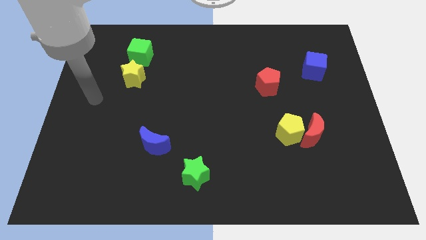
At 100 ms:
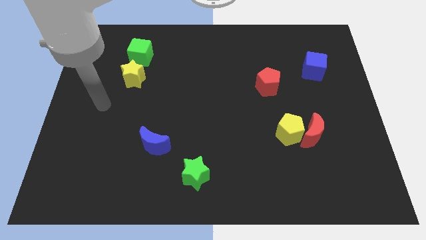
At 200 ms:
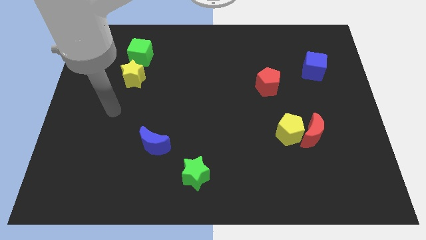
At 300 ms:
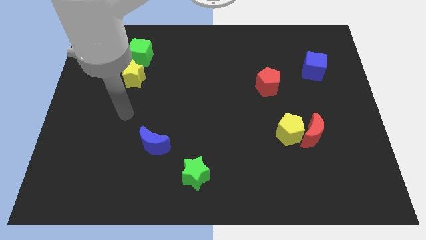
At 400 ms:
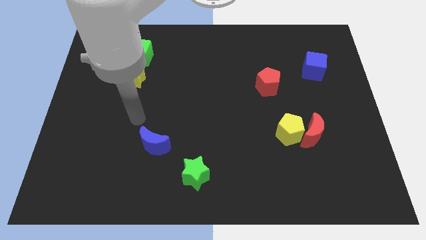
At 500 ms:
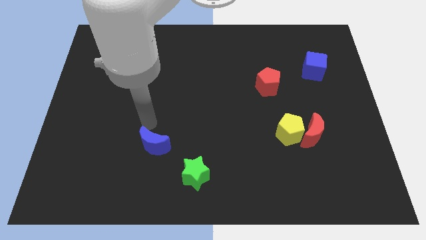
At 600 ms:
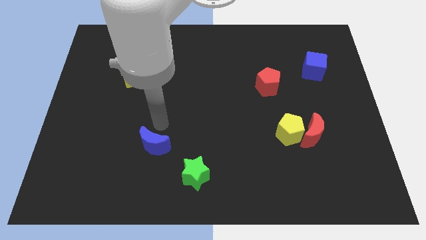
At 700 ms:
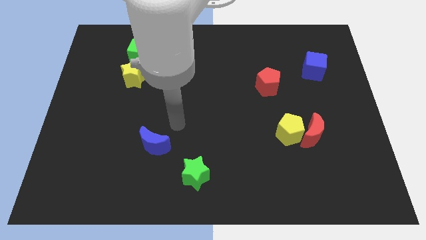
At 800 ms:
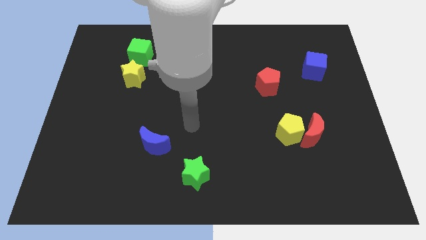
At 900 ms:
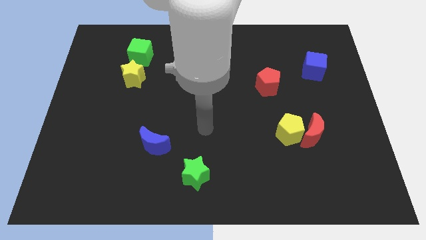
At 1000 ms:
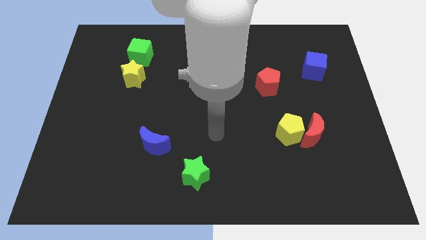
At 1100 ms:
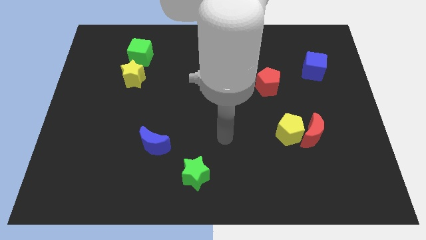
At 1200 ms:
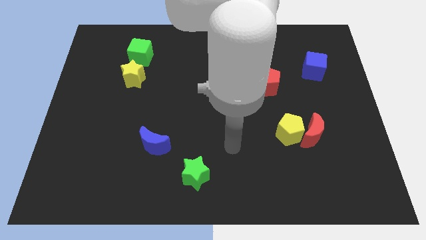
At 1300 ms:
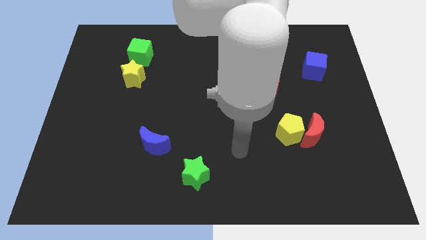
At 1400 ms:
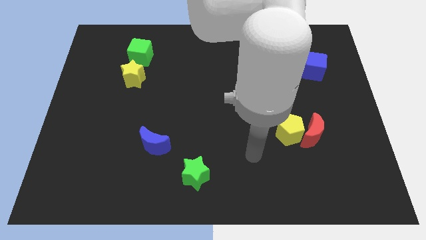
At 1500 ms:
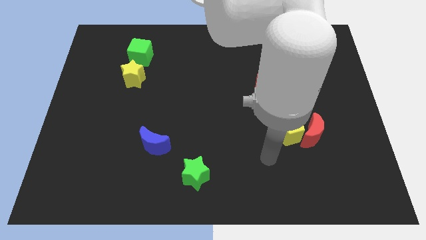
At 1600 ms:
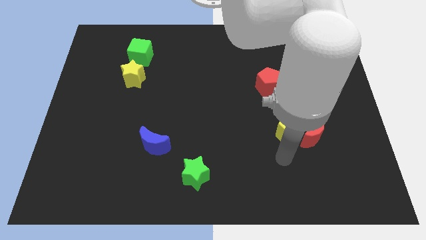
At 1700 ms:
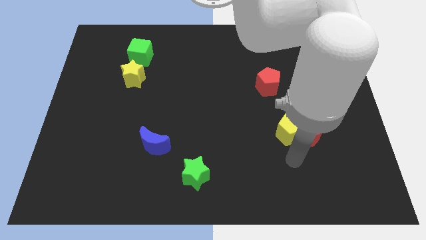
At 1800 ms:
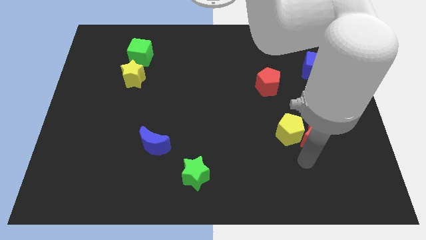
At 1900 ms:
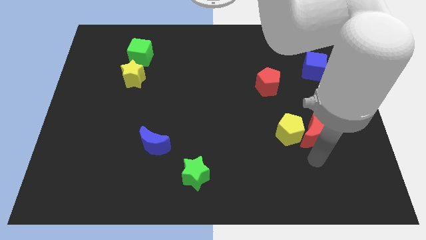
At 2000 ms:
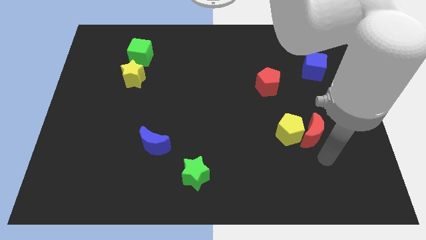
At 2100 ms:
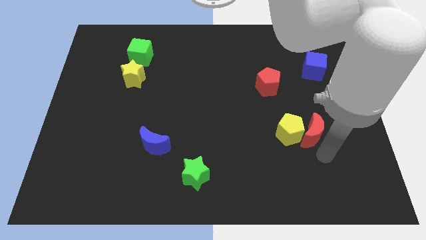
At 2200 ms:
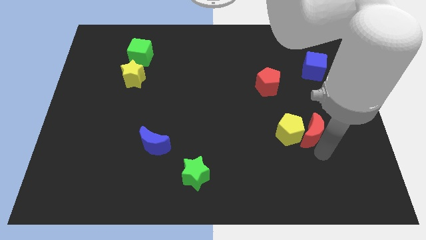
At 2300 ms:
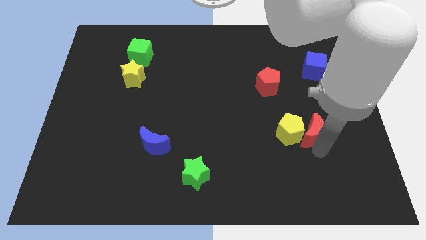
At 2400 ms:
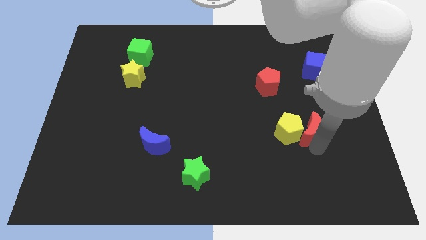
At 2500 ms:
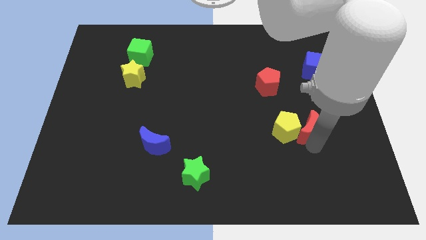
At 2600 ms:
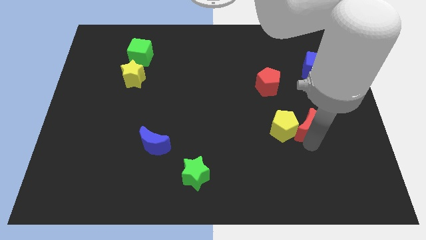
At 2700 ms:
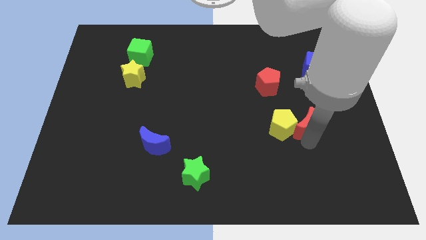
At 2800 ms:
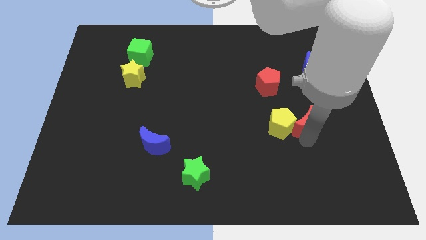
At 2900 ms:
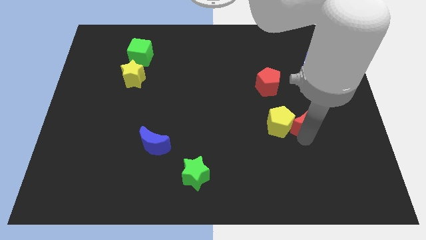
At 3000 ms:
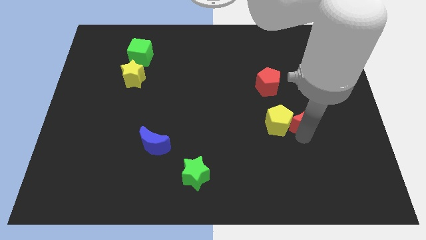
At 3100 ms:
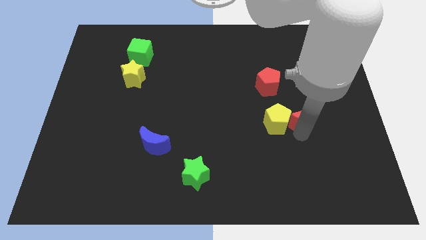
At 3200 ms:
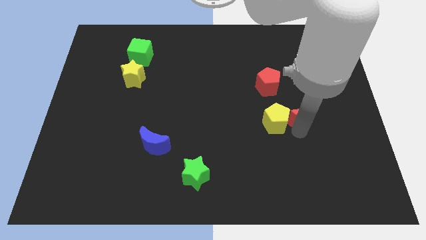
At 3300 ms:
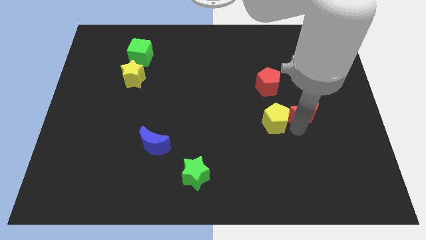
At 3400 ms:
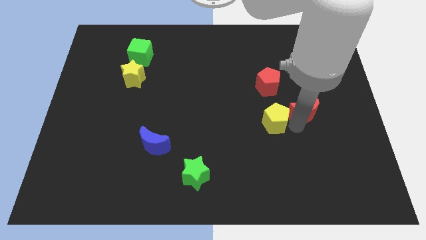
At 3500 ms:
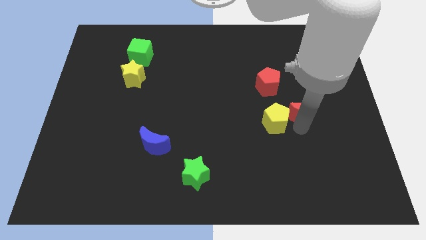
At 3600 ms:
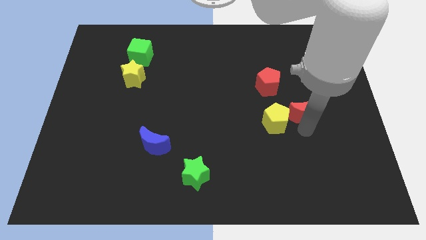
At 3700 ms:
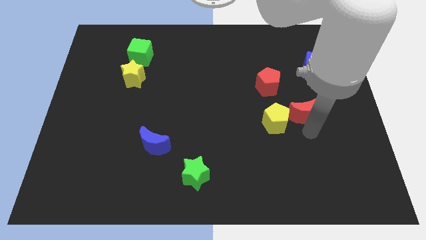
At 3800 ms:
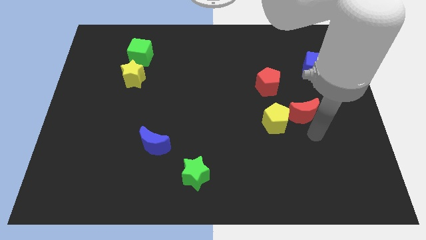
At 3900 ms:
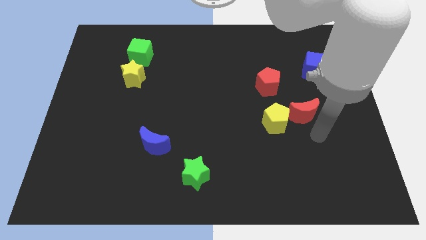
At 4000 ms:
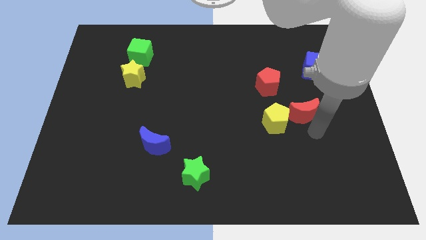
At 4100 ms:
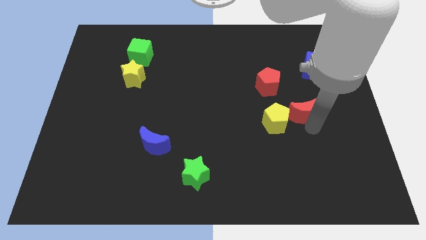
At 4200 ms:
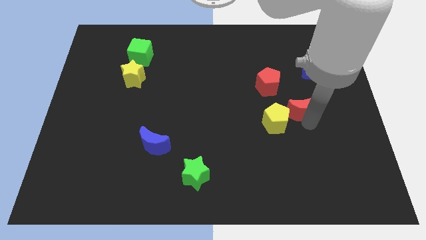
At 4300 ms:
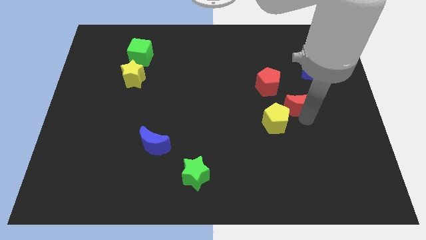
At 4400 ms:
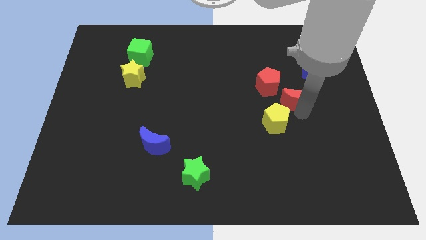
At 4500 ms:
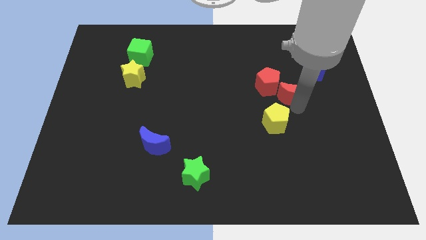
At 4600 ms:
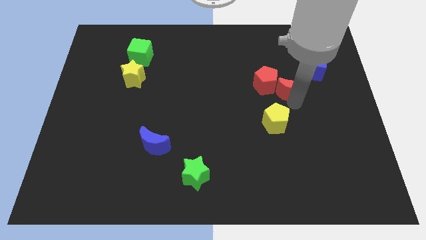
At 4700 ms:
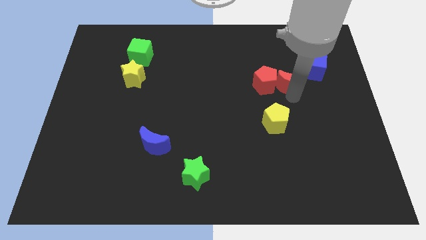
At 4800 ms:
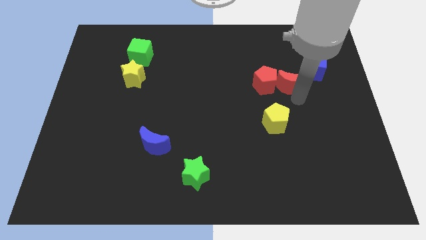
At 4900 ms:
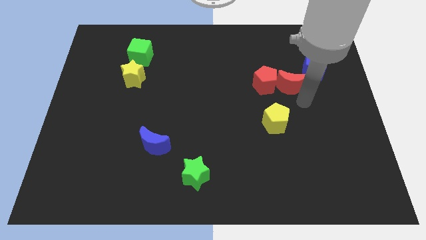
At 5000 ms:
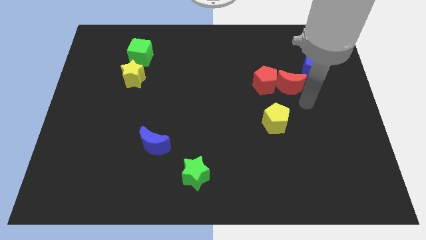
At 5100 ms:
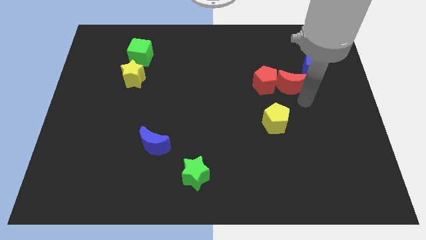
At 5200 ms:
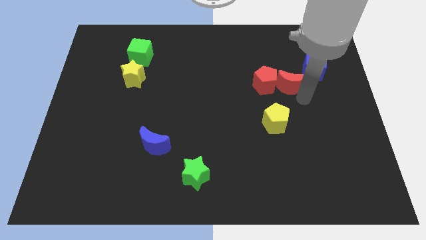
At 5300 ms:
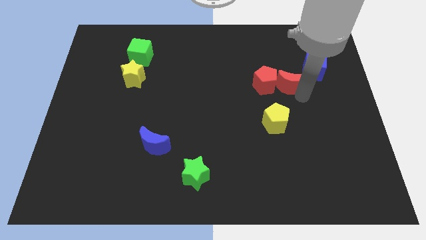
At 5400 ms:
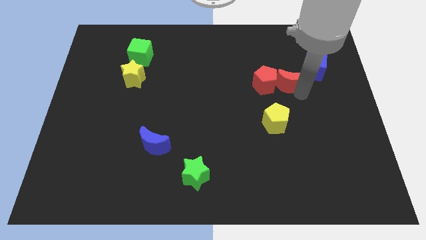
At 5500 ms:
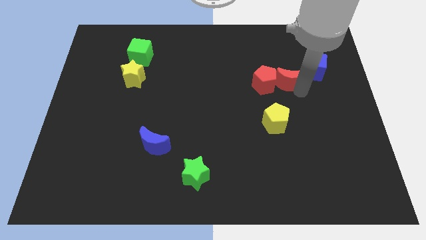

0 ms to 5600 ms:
push the red moon to the left of the blue cube

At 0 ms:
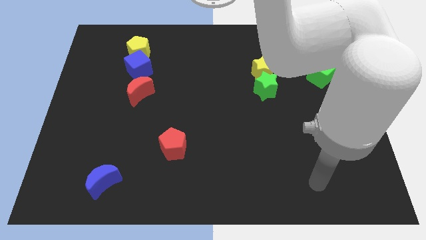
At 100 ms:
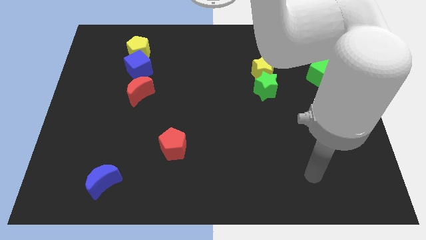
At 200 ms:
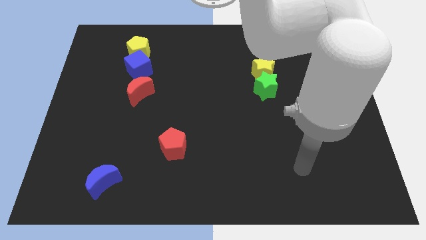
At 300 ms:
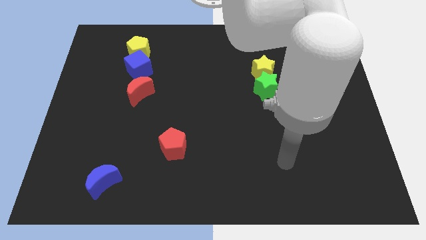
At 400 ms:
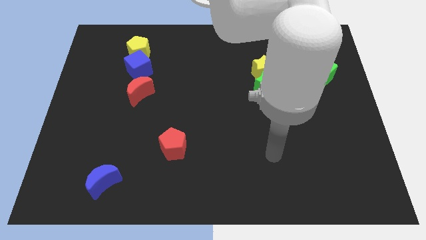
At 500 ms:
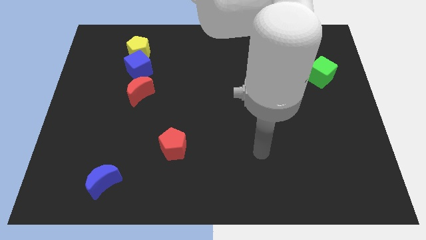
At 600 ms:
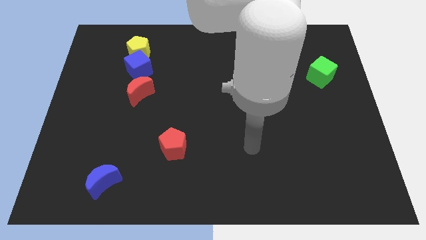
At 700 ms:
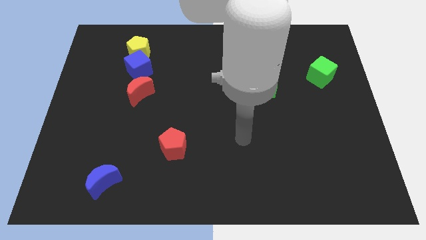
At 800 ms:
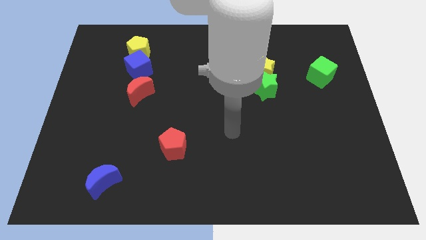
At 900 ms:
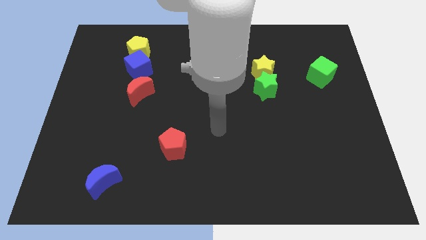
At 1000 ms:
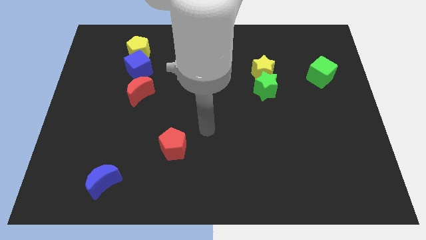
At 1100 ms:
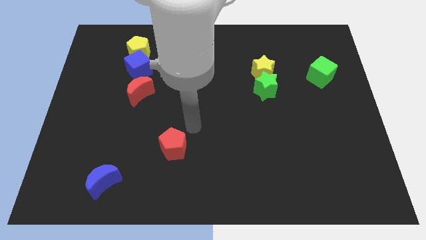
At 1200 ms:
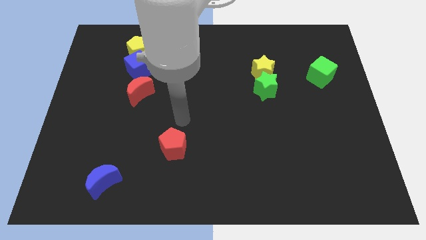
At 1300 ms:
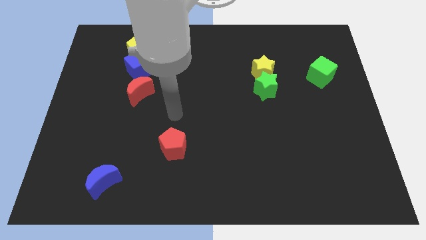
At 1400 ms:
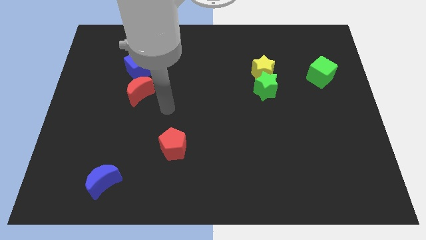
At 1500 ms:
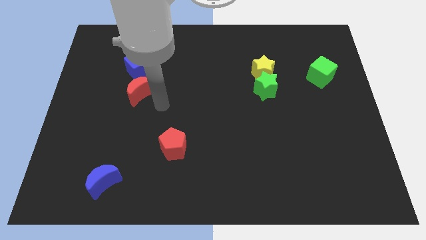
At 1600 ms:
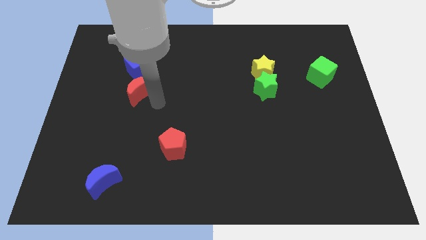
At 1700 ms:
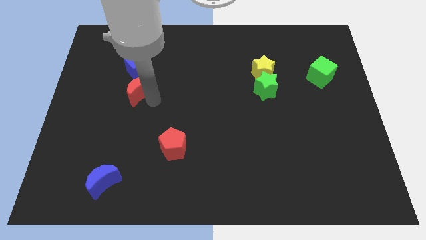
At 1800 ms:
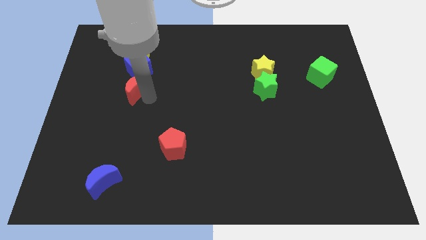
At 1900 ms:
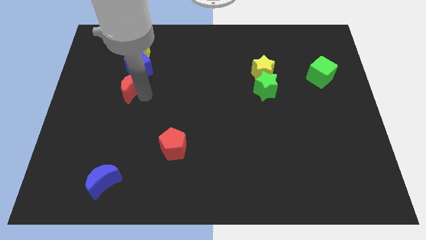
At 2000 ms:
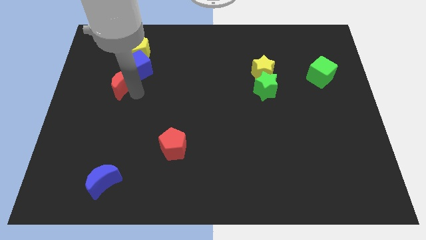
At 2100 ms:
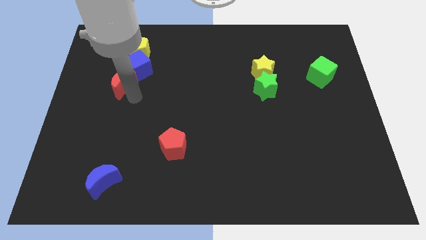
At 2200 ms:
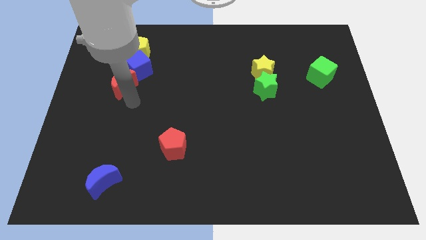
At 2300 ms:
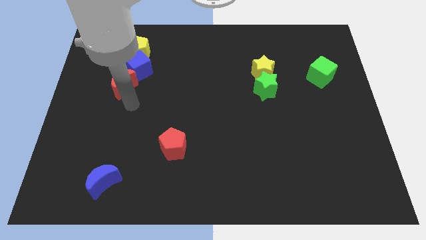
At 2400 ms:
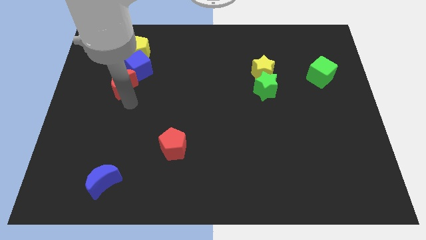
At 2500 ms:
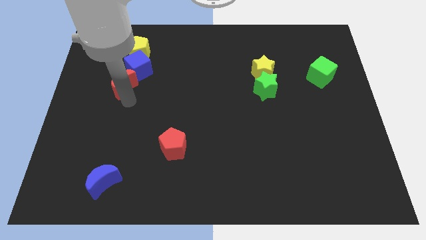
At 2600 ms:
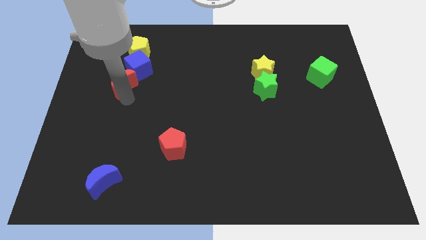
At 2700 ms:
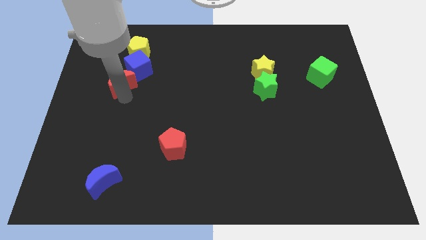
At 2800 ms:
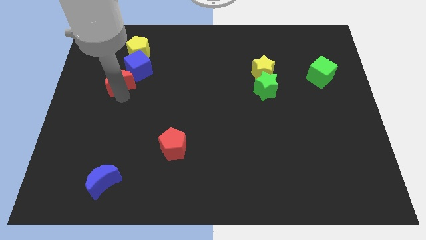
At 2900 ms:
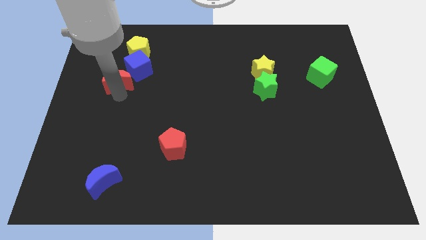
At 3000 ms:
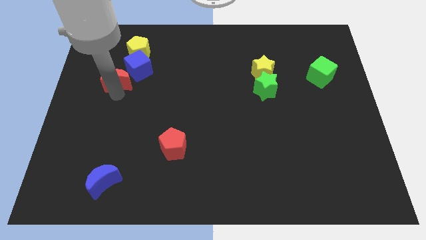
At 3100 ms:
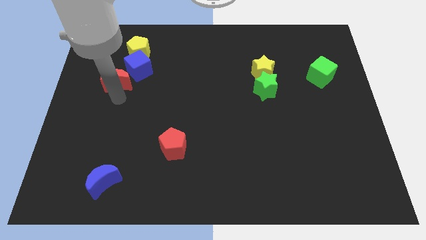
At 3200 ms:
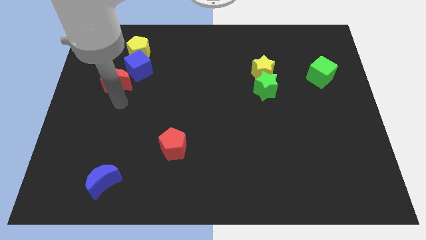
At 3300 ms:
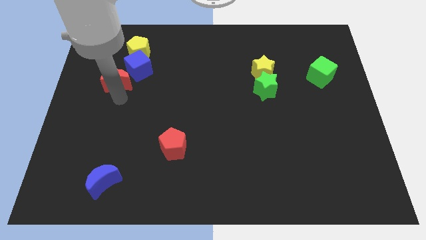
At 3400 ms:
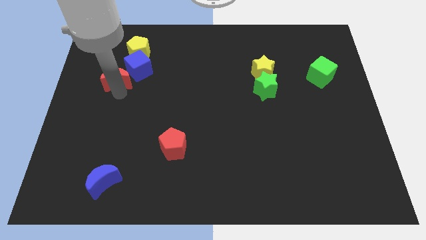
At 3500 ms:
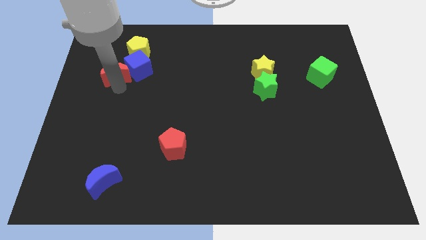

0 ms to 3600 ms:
push the red moon diagonally down and to the left of the yellow pentagon
